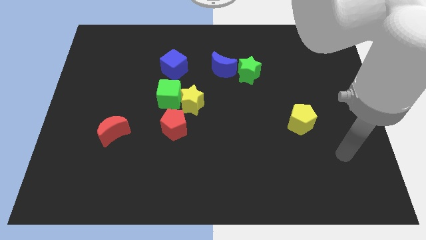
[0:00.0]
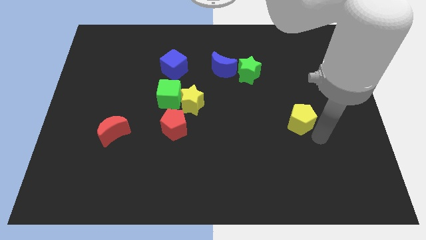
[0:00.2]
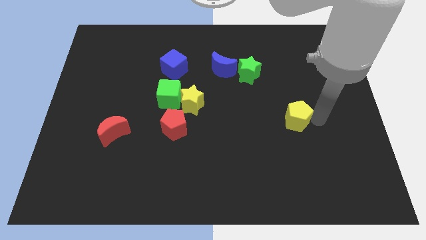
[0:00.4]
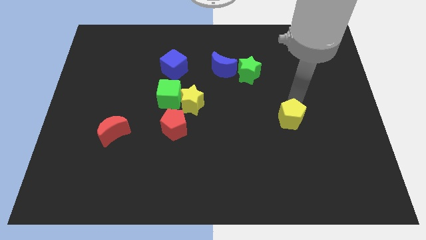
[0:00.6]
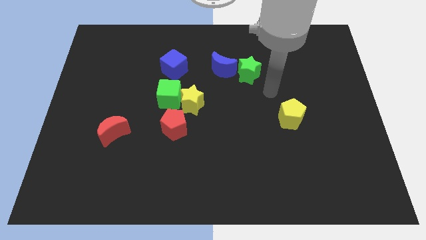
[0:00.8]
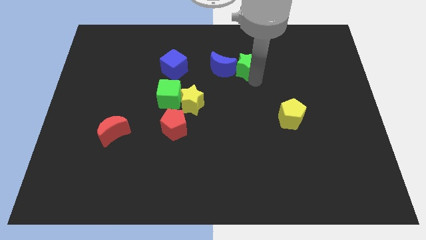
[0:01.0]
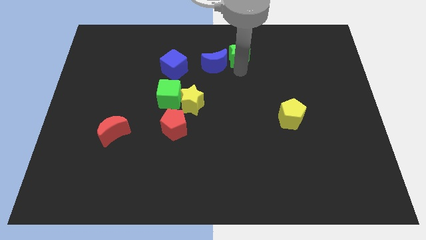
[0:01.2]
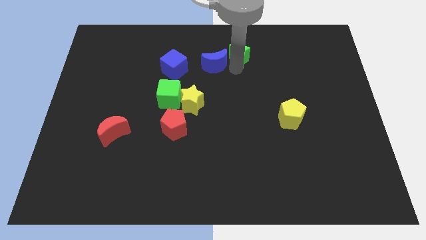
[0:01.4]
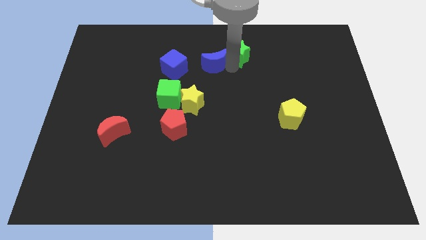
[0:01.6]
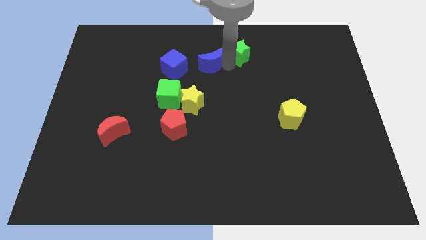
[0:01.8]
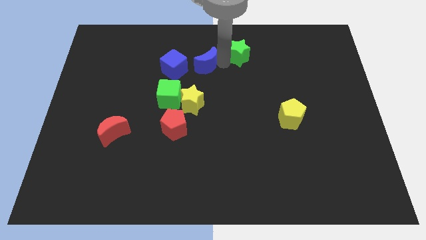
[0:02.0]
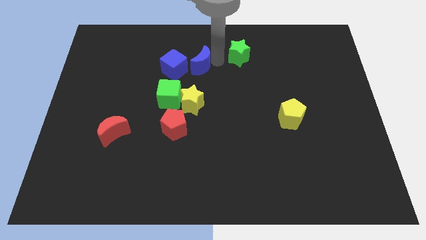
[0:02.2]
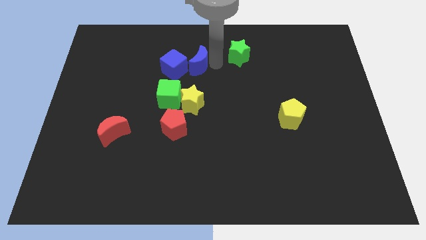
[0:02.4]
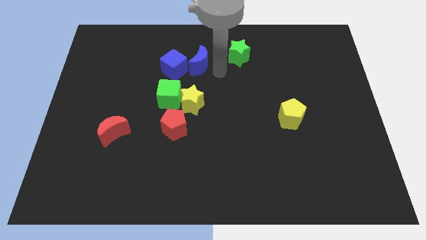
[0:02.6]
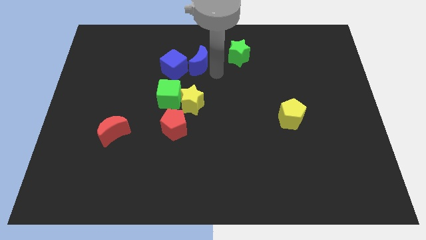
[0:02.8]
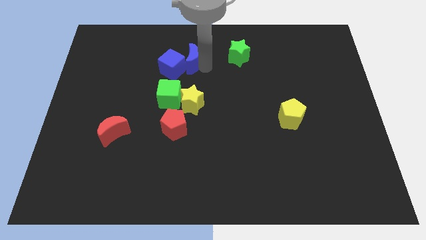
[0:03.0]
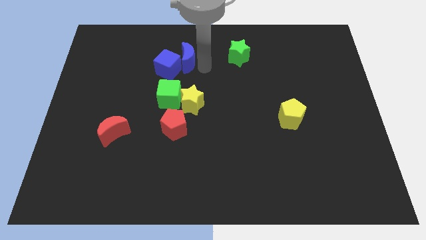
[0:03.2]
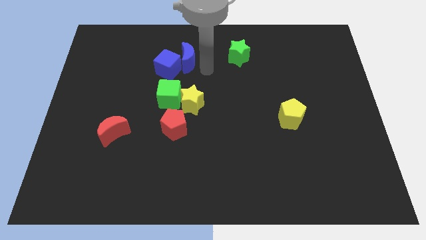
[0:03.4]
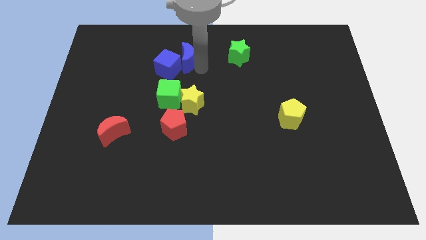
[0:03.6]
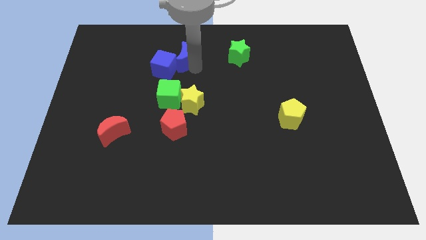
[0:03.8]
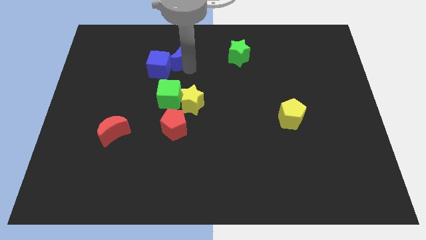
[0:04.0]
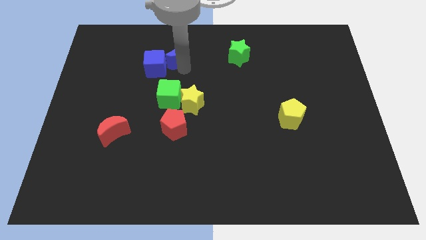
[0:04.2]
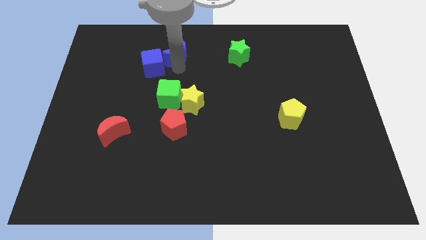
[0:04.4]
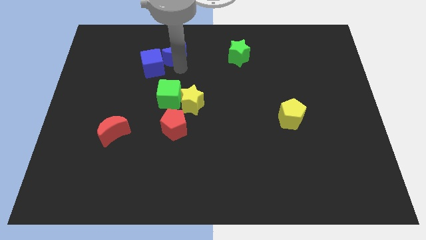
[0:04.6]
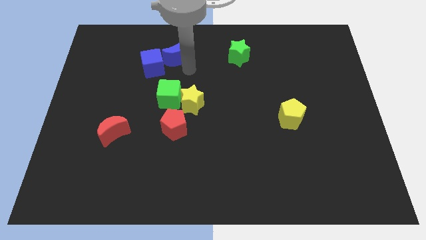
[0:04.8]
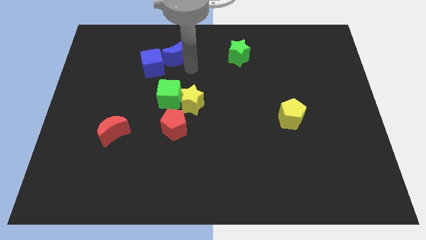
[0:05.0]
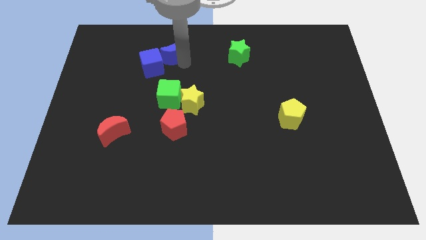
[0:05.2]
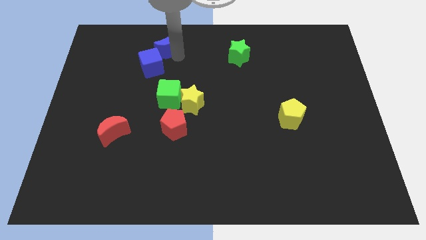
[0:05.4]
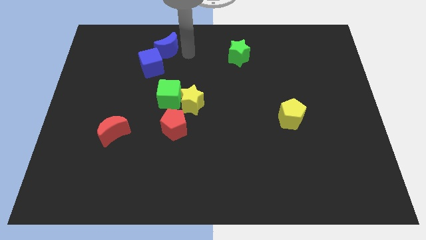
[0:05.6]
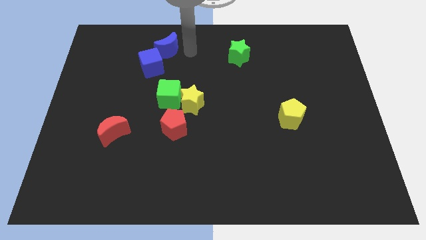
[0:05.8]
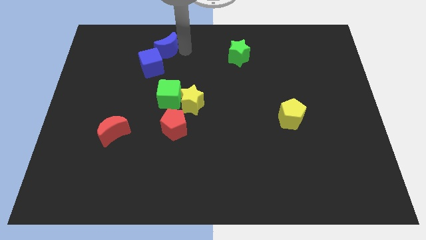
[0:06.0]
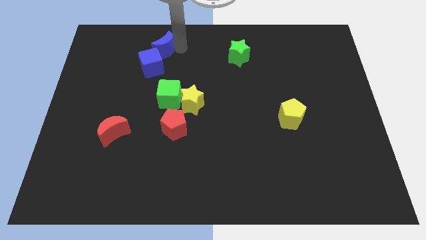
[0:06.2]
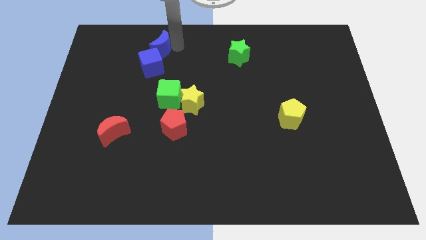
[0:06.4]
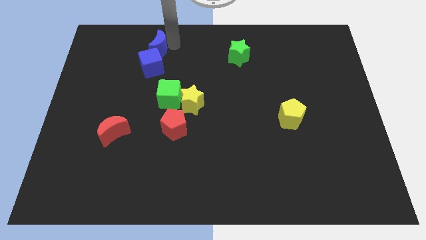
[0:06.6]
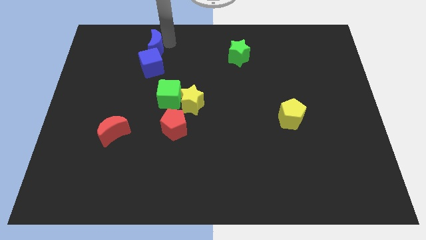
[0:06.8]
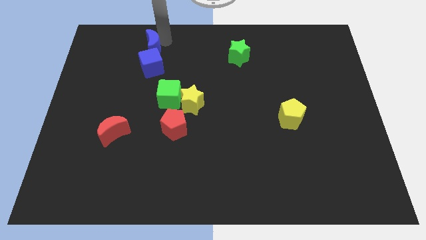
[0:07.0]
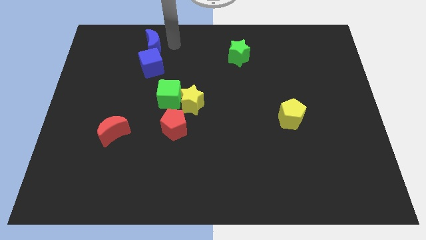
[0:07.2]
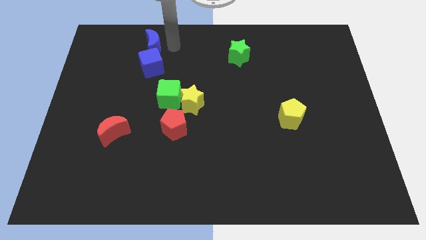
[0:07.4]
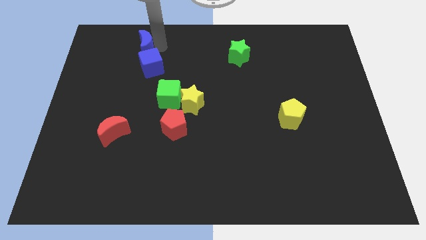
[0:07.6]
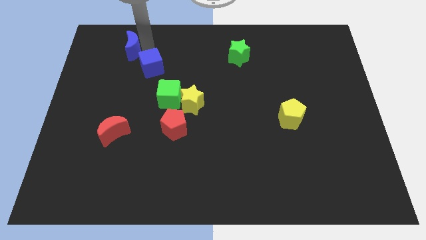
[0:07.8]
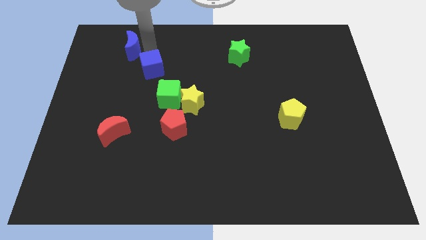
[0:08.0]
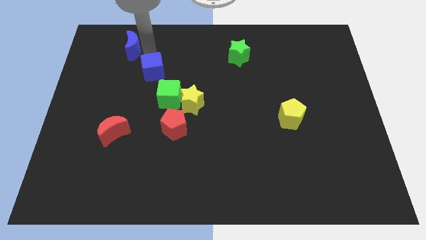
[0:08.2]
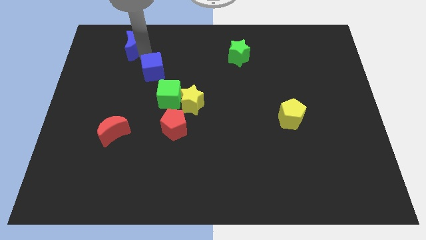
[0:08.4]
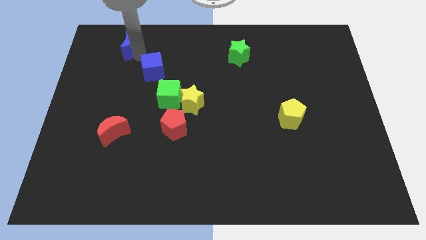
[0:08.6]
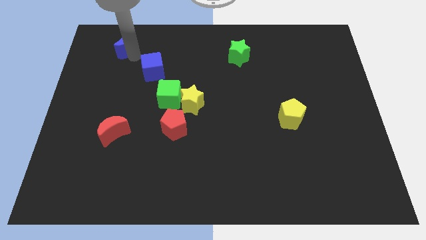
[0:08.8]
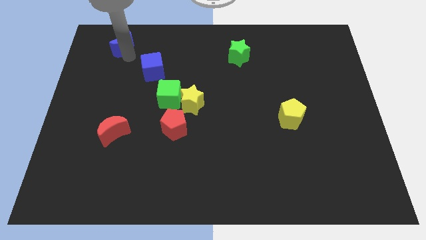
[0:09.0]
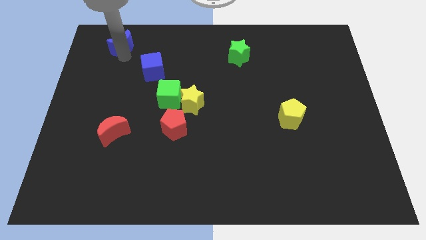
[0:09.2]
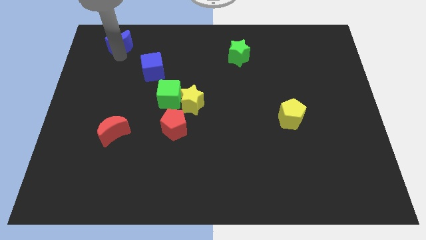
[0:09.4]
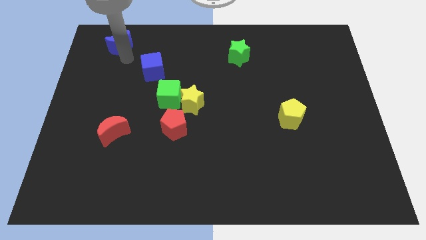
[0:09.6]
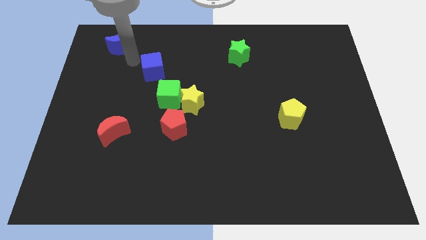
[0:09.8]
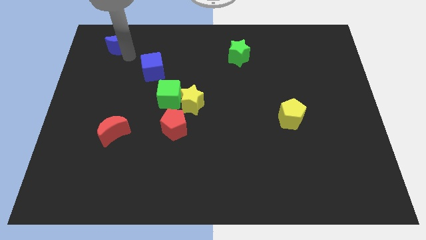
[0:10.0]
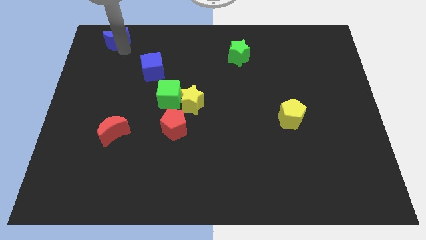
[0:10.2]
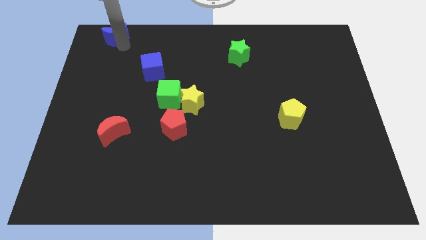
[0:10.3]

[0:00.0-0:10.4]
slide the blue moon to the top left corner

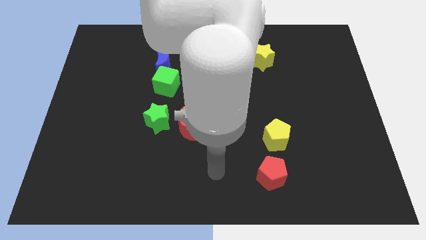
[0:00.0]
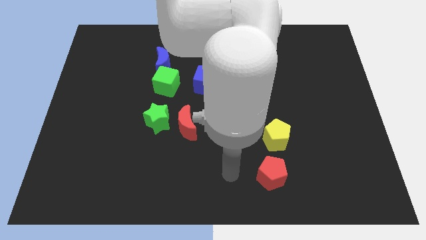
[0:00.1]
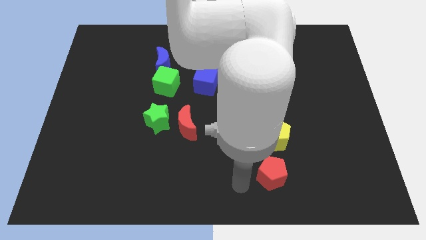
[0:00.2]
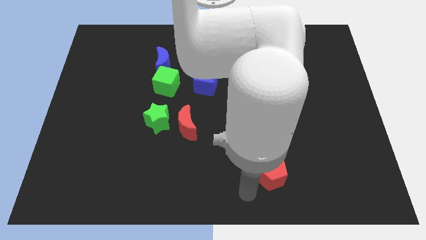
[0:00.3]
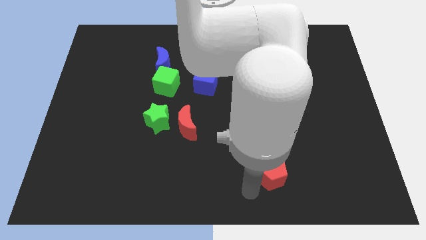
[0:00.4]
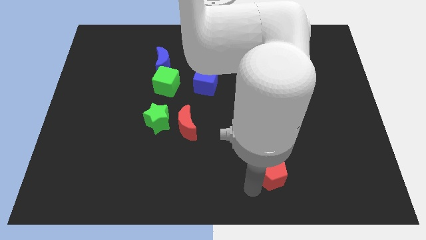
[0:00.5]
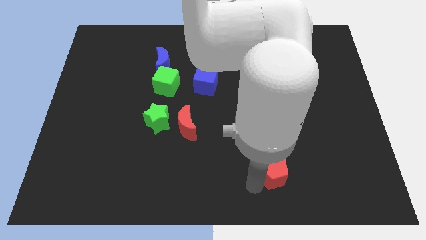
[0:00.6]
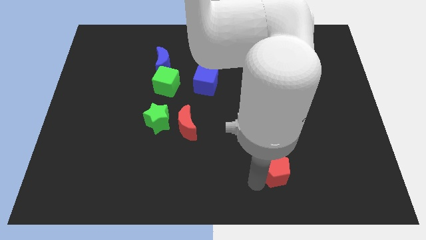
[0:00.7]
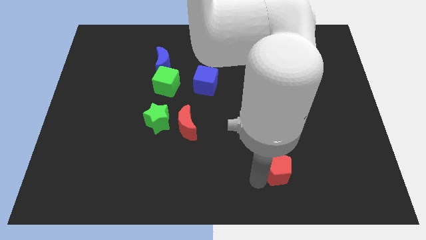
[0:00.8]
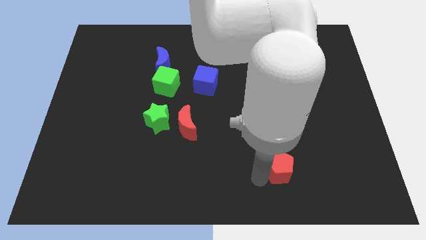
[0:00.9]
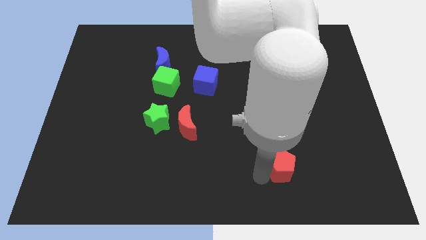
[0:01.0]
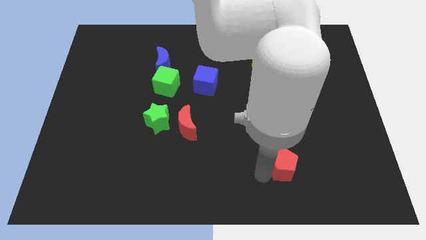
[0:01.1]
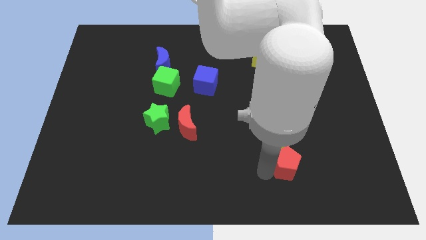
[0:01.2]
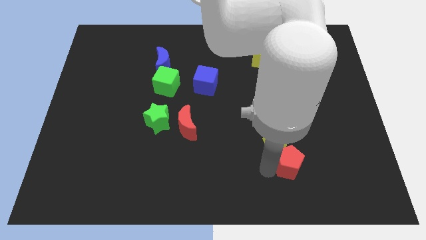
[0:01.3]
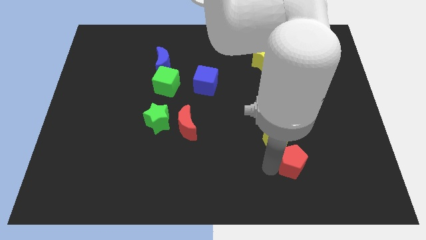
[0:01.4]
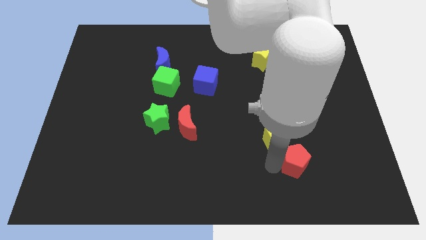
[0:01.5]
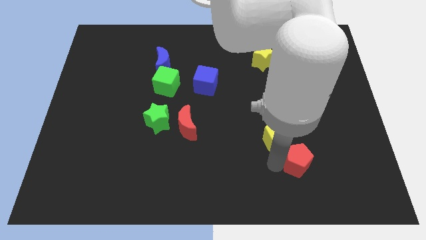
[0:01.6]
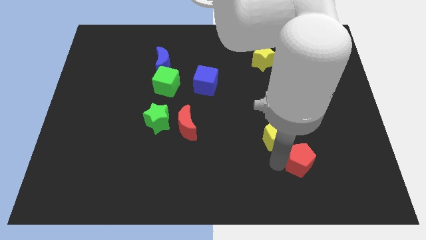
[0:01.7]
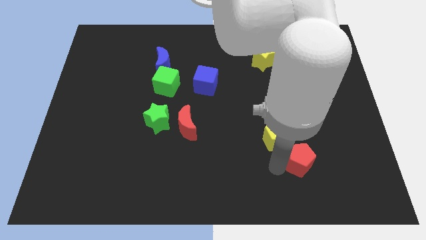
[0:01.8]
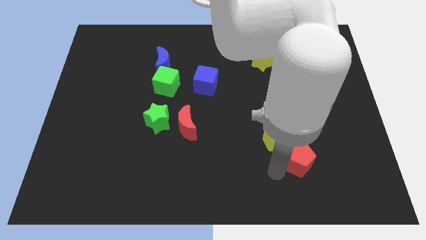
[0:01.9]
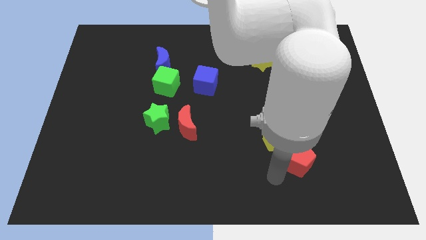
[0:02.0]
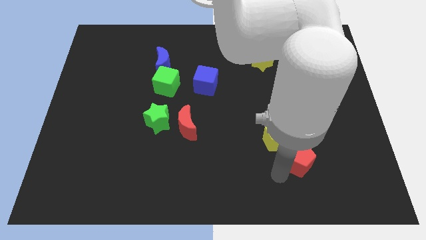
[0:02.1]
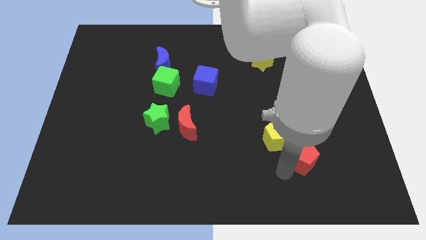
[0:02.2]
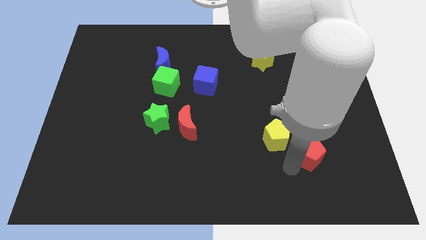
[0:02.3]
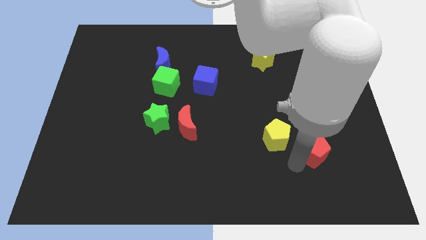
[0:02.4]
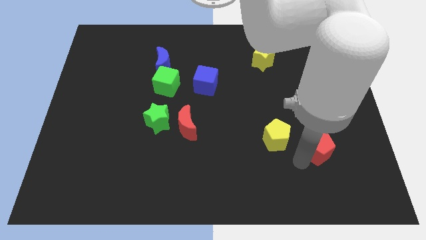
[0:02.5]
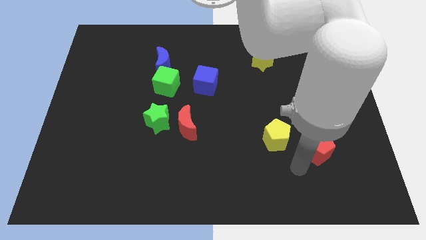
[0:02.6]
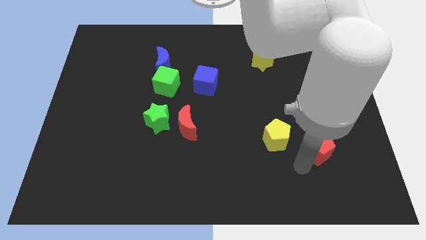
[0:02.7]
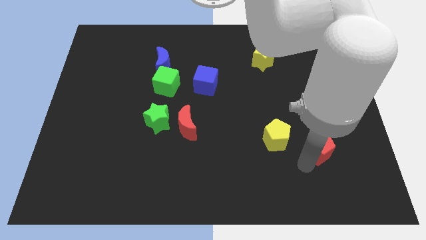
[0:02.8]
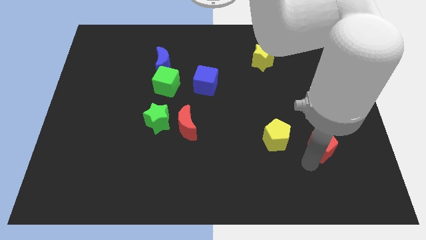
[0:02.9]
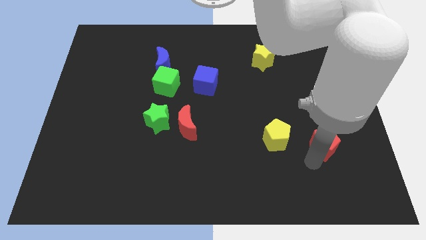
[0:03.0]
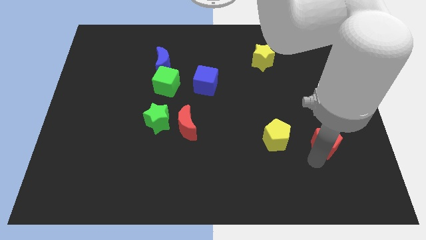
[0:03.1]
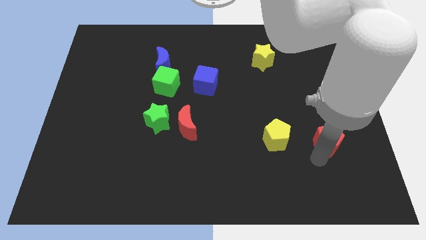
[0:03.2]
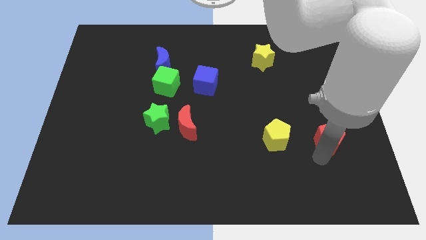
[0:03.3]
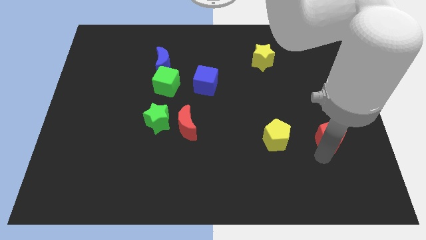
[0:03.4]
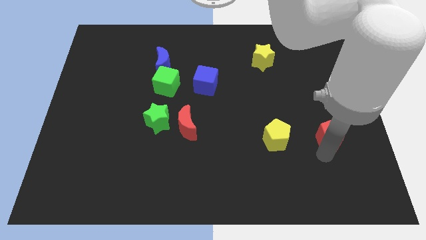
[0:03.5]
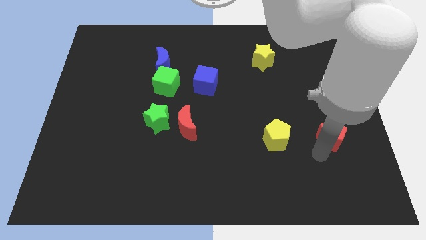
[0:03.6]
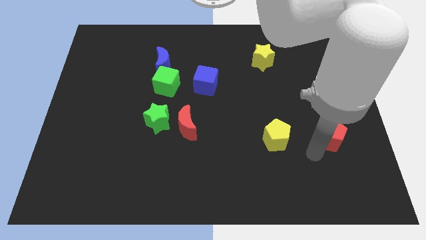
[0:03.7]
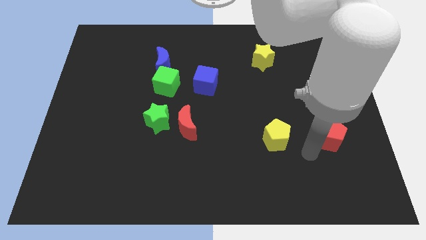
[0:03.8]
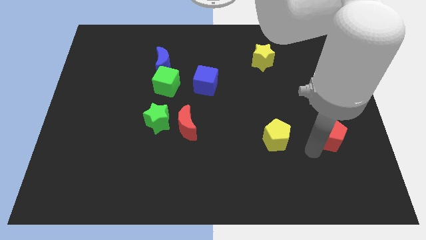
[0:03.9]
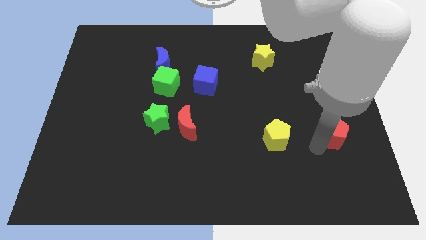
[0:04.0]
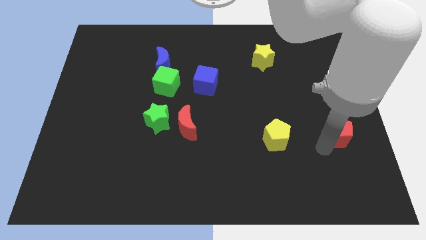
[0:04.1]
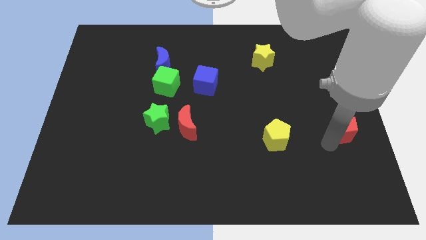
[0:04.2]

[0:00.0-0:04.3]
move the red pentagon to the center right
